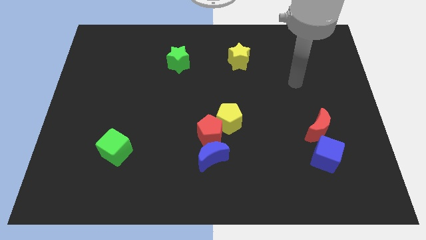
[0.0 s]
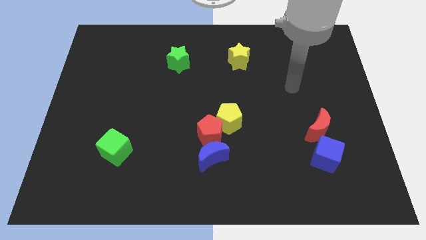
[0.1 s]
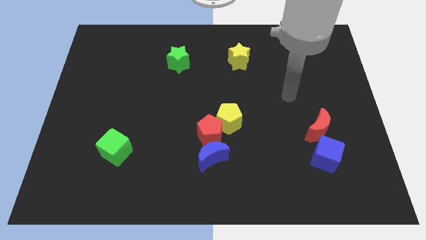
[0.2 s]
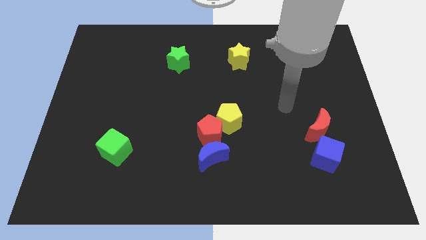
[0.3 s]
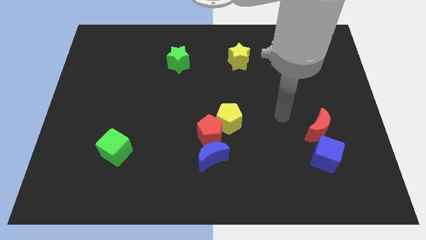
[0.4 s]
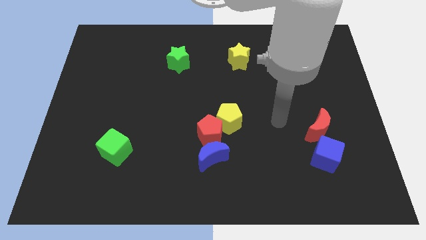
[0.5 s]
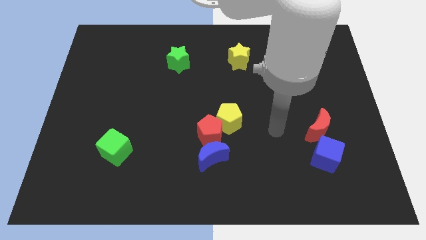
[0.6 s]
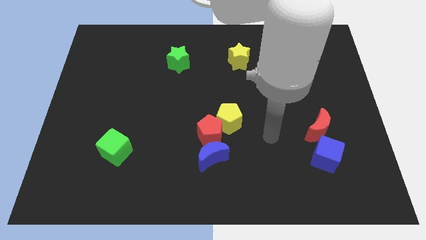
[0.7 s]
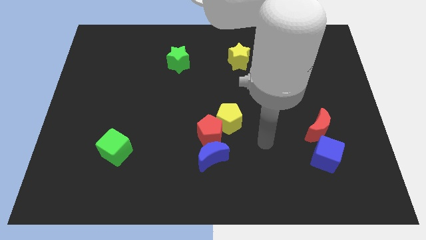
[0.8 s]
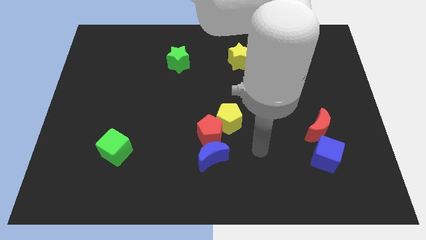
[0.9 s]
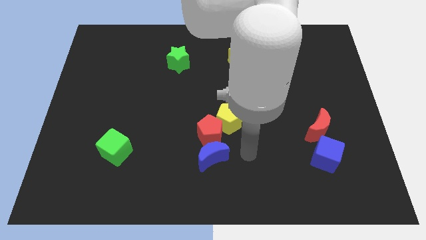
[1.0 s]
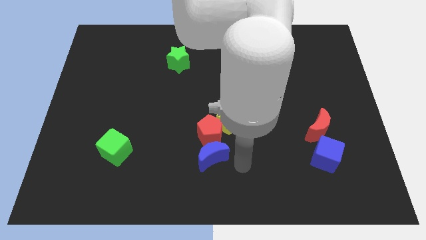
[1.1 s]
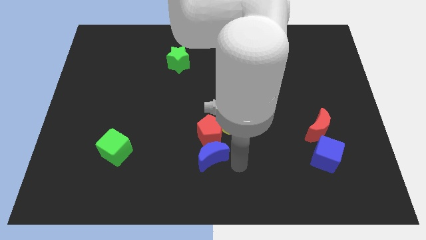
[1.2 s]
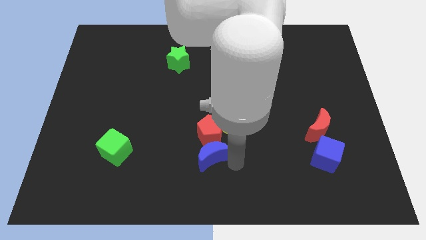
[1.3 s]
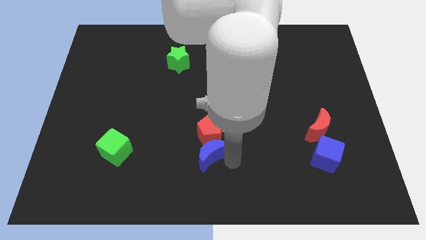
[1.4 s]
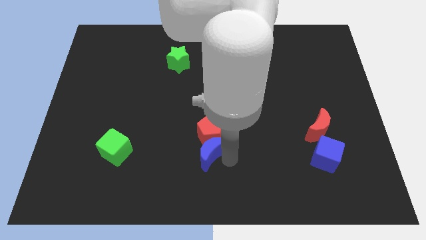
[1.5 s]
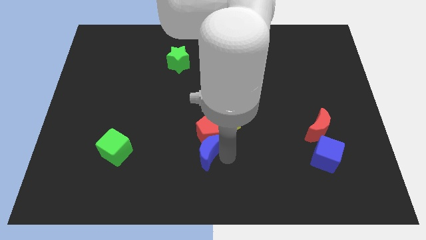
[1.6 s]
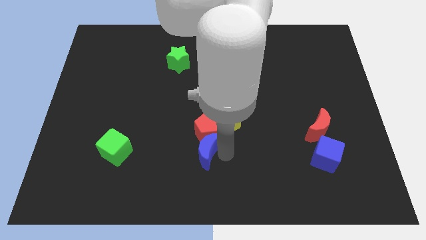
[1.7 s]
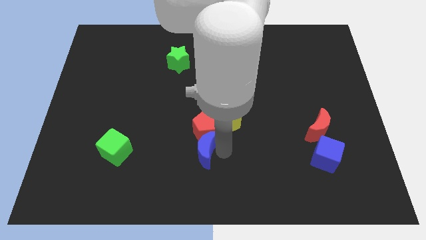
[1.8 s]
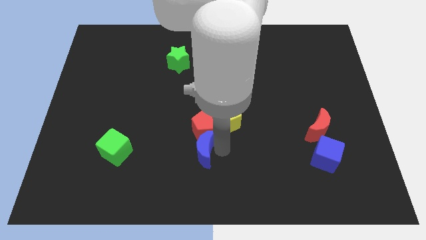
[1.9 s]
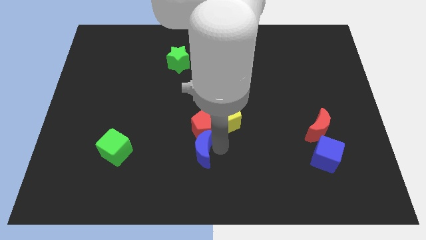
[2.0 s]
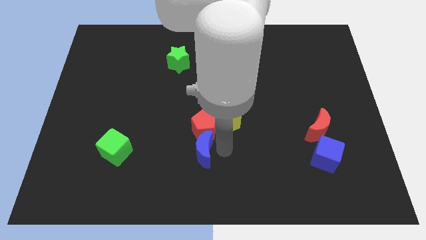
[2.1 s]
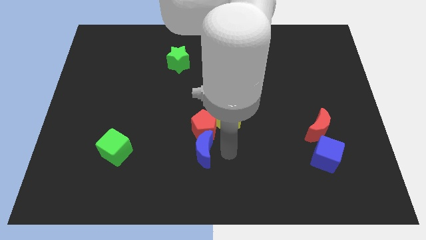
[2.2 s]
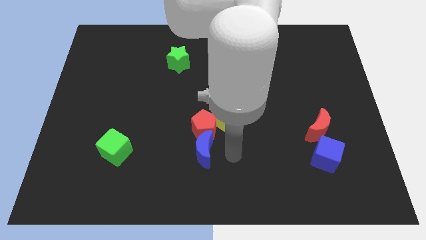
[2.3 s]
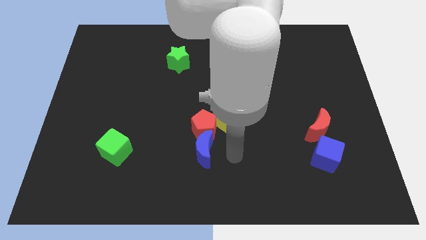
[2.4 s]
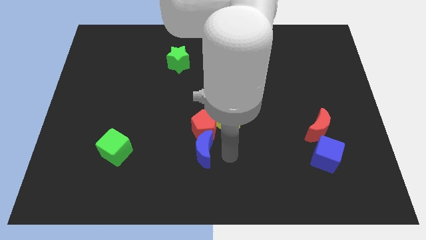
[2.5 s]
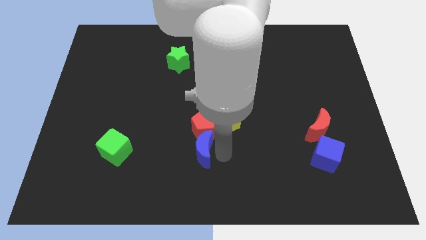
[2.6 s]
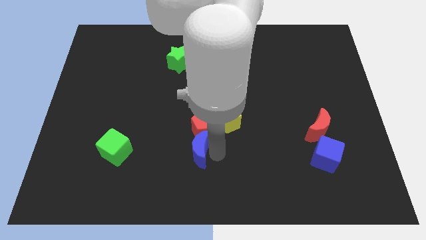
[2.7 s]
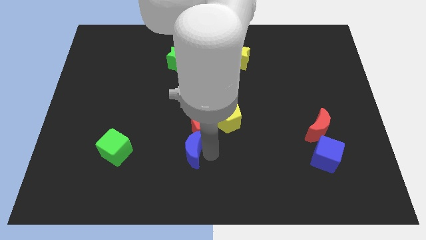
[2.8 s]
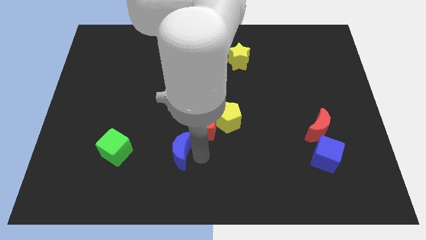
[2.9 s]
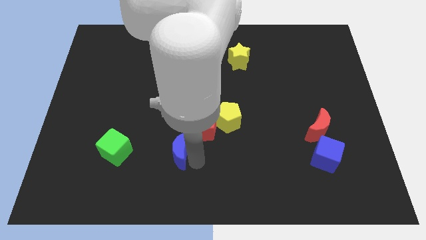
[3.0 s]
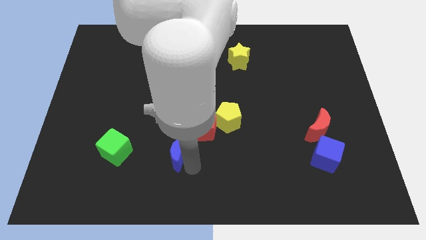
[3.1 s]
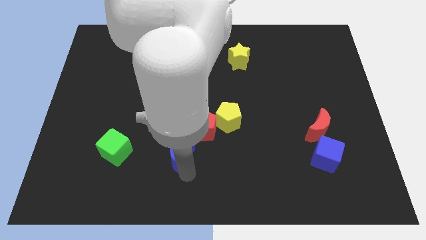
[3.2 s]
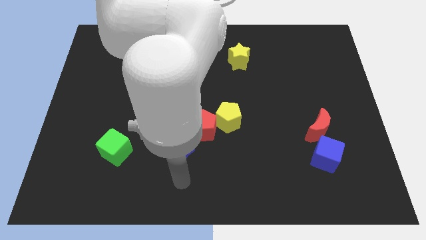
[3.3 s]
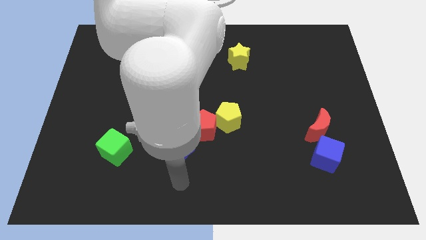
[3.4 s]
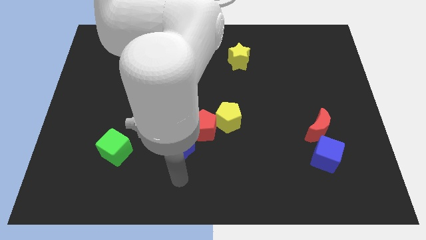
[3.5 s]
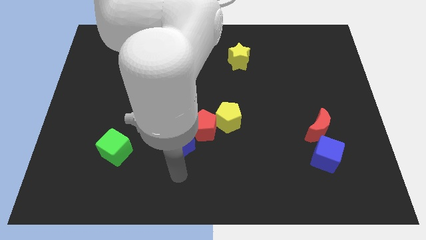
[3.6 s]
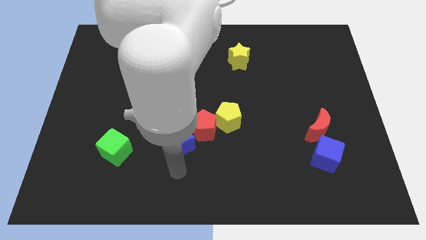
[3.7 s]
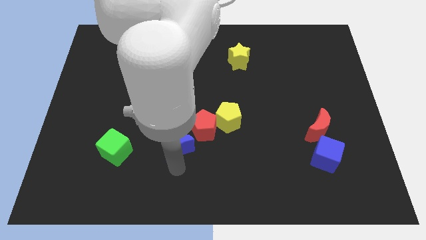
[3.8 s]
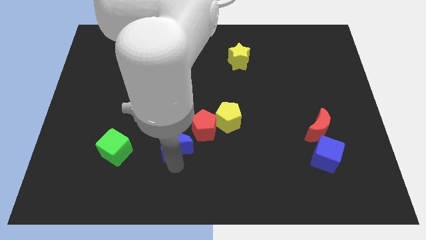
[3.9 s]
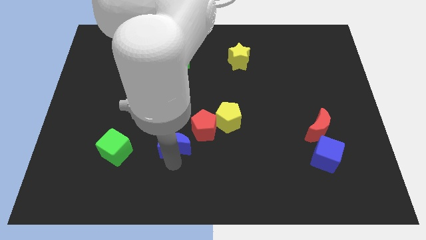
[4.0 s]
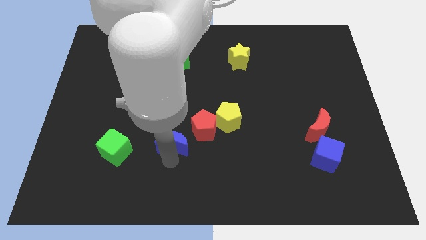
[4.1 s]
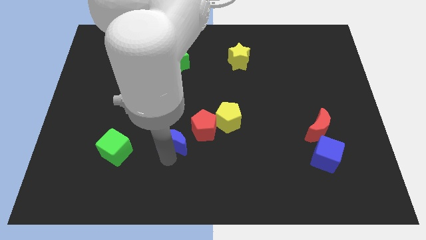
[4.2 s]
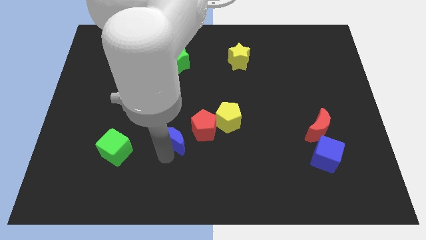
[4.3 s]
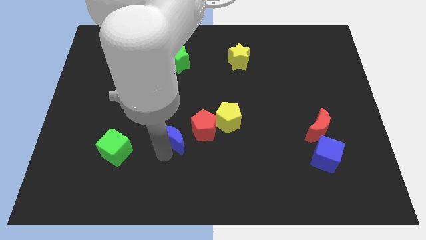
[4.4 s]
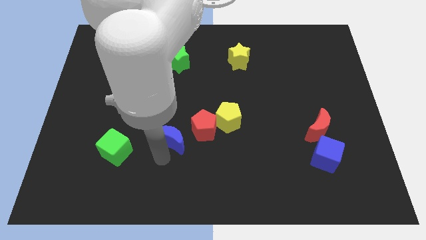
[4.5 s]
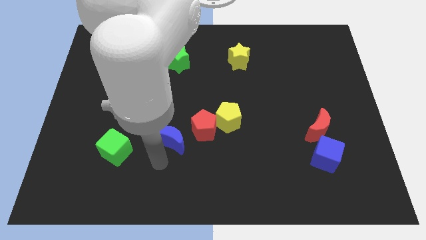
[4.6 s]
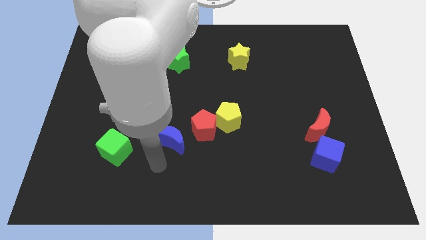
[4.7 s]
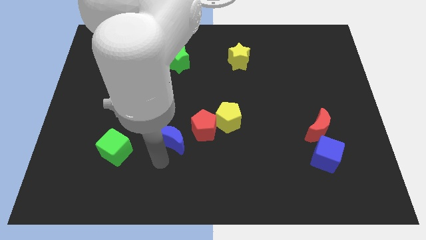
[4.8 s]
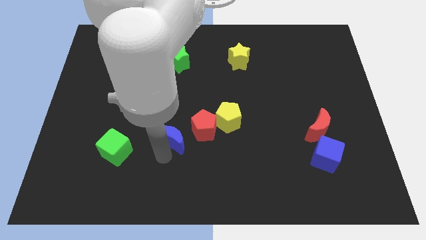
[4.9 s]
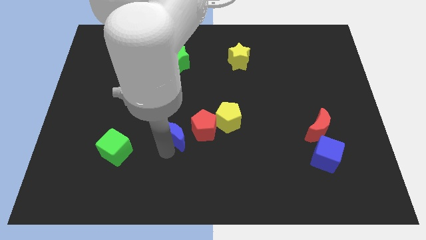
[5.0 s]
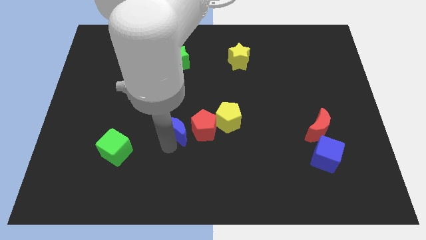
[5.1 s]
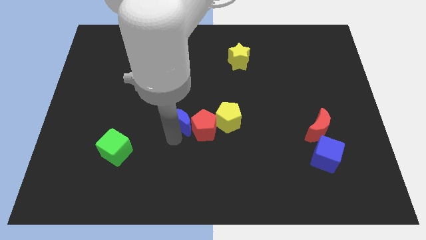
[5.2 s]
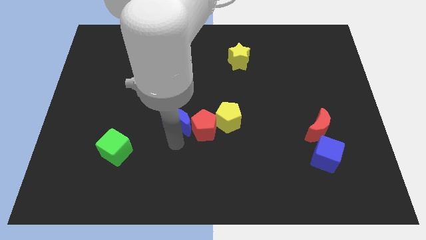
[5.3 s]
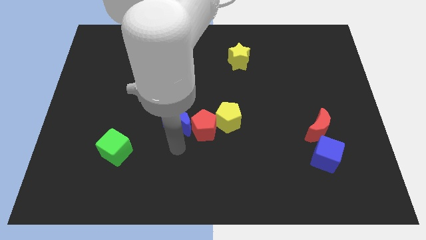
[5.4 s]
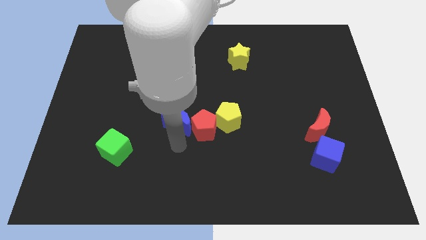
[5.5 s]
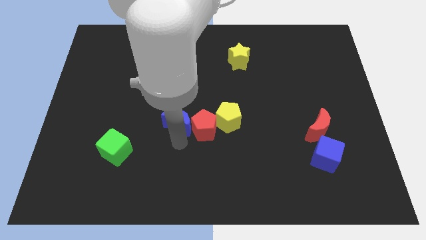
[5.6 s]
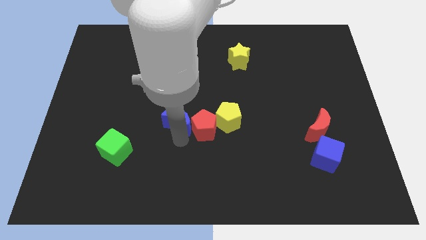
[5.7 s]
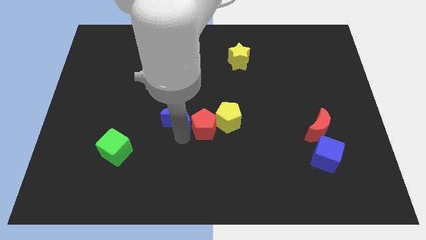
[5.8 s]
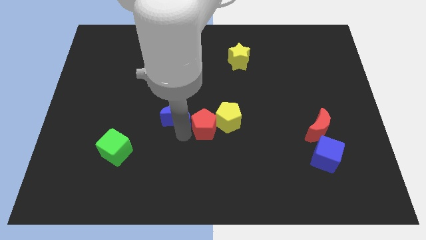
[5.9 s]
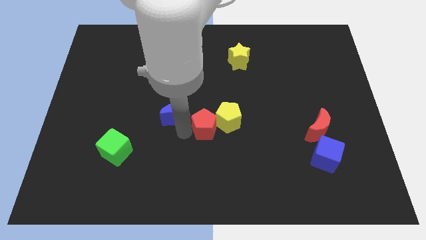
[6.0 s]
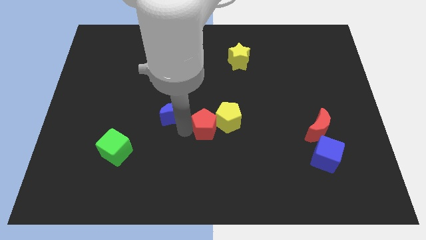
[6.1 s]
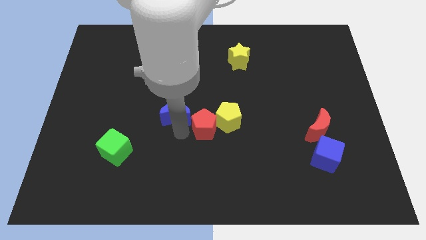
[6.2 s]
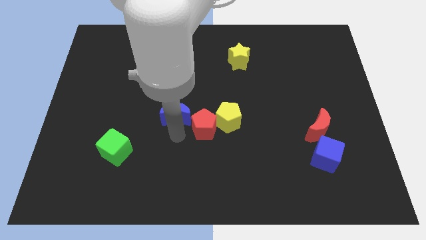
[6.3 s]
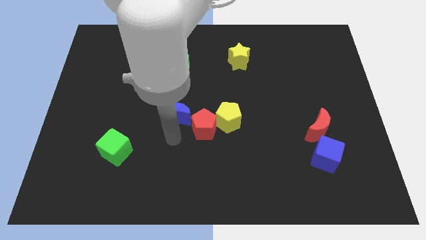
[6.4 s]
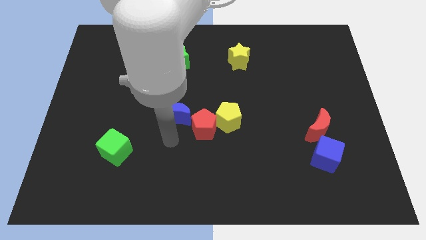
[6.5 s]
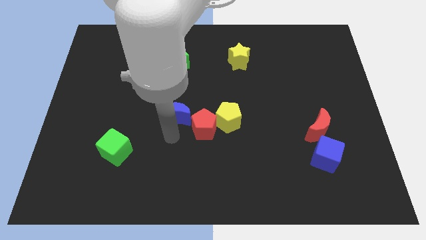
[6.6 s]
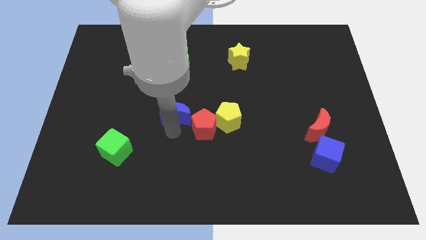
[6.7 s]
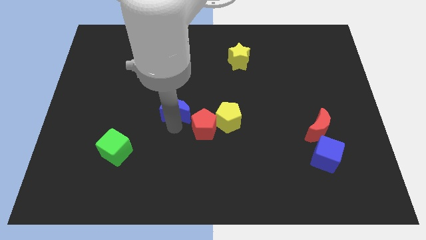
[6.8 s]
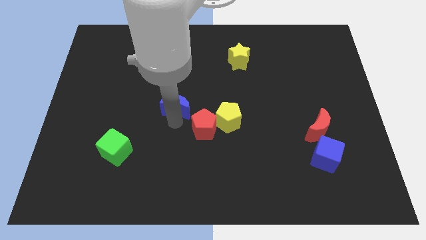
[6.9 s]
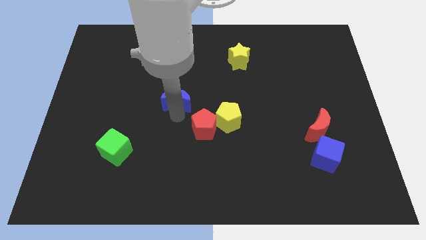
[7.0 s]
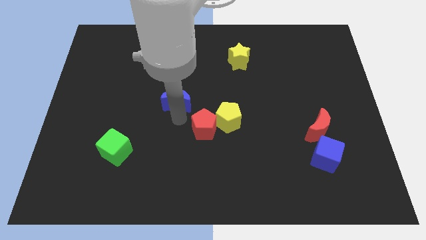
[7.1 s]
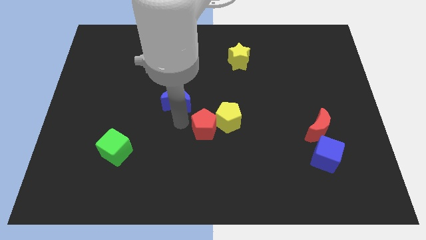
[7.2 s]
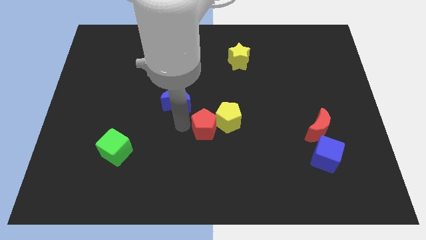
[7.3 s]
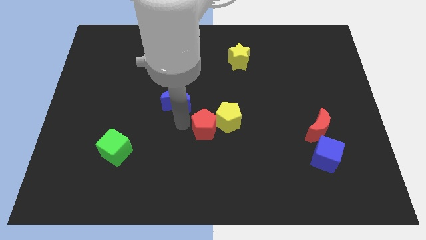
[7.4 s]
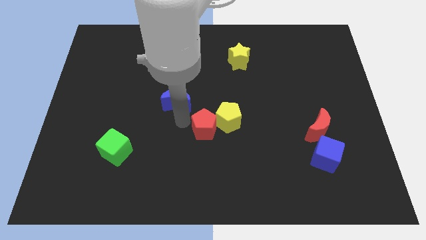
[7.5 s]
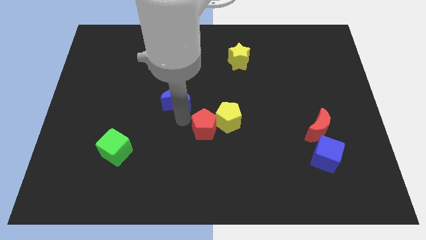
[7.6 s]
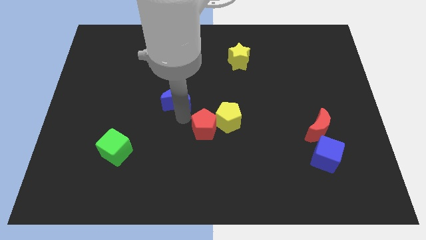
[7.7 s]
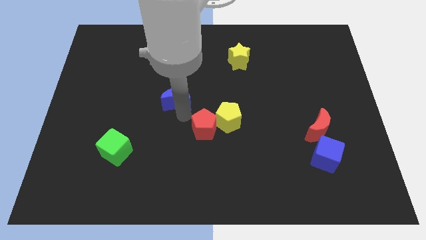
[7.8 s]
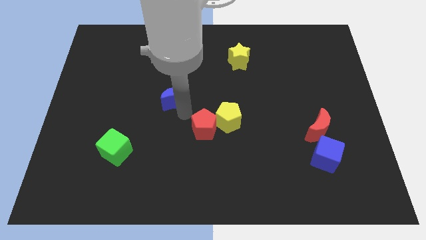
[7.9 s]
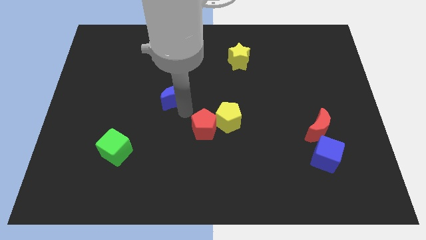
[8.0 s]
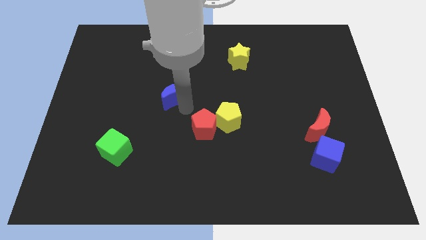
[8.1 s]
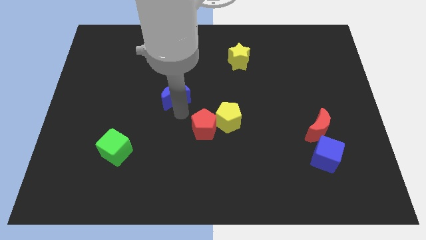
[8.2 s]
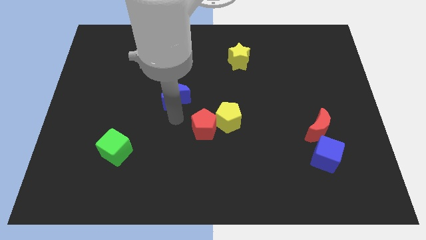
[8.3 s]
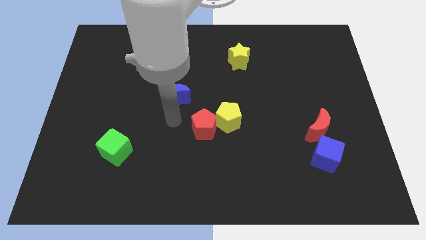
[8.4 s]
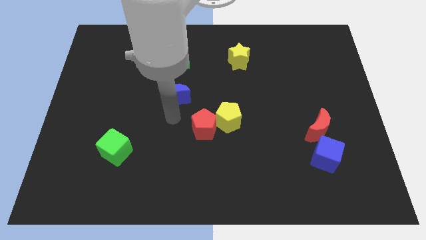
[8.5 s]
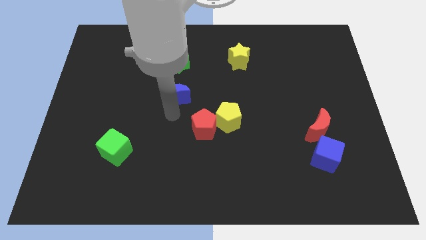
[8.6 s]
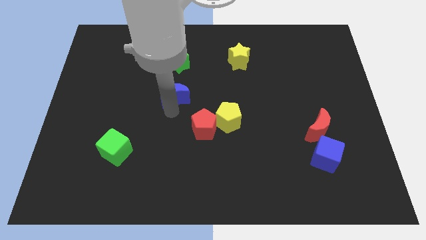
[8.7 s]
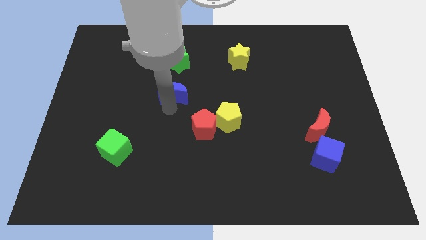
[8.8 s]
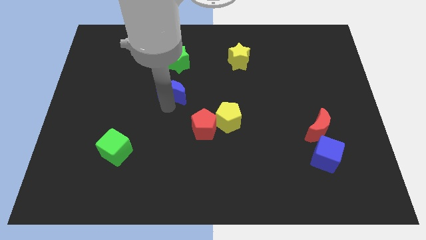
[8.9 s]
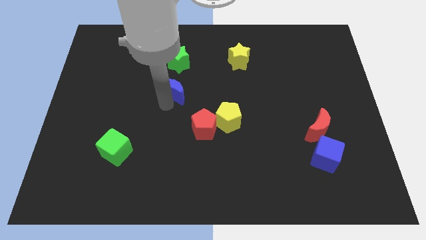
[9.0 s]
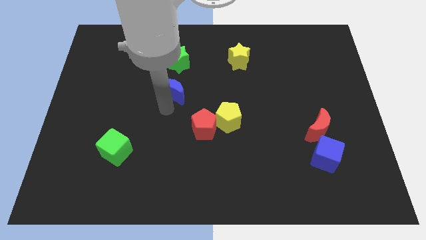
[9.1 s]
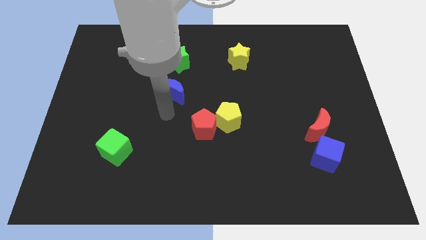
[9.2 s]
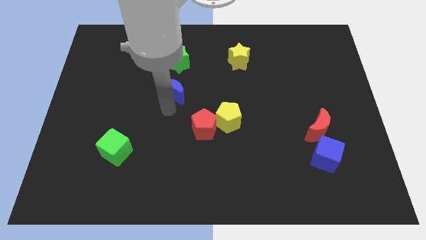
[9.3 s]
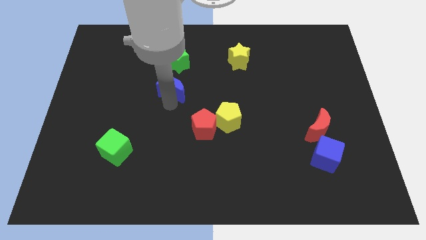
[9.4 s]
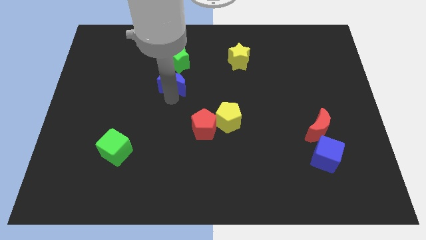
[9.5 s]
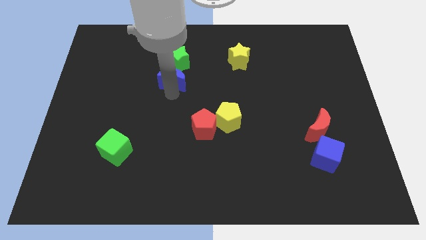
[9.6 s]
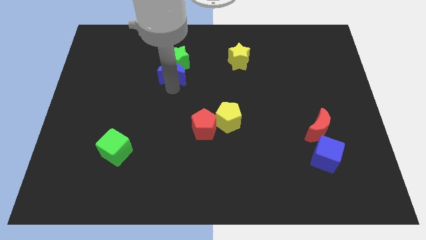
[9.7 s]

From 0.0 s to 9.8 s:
put the blue moon towards the green star
